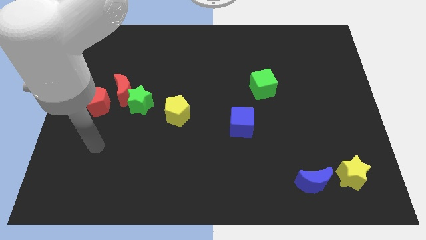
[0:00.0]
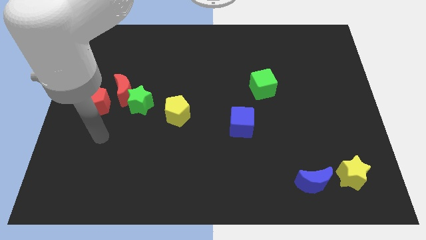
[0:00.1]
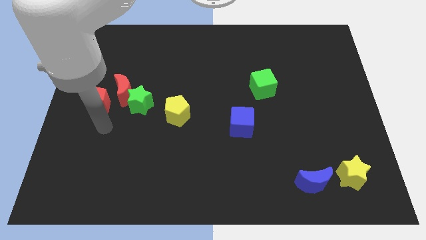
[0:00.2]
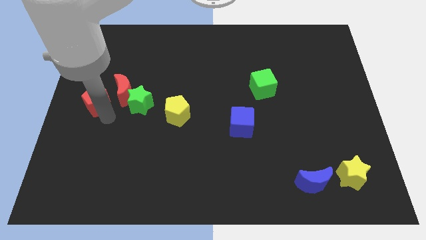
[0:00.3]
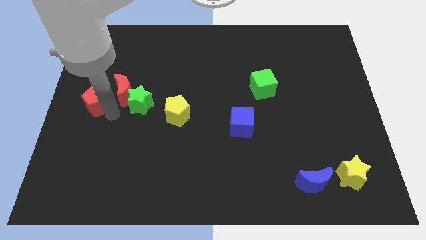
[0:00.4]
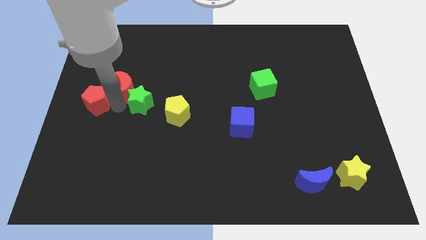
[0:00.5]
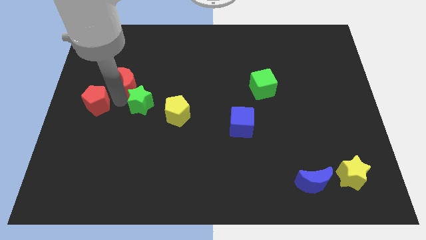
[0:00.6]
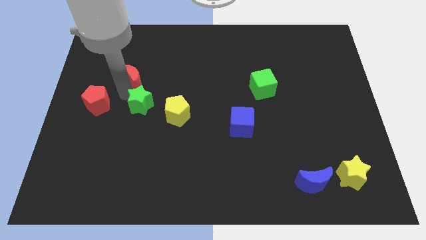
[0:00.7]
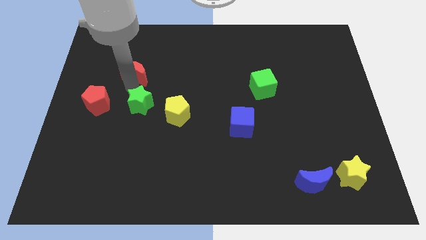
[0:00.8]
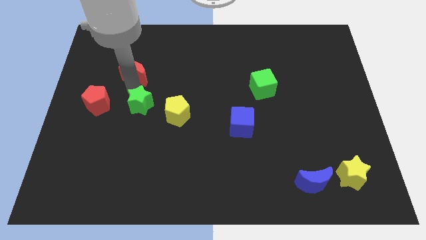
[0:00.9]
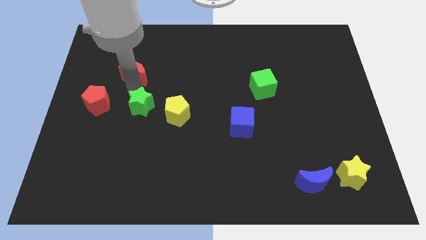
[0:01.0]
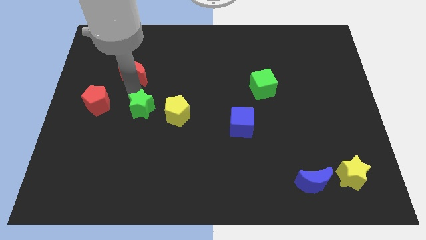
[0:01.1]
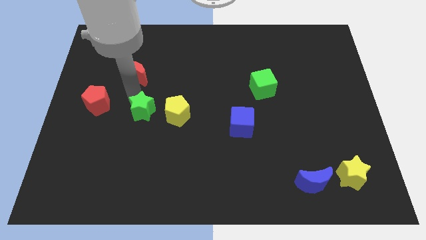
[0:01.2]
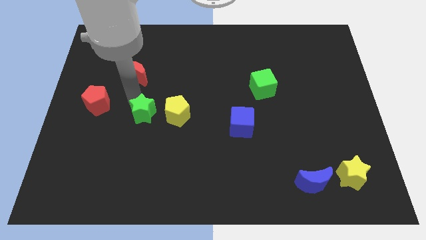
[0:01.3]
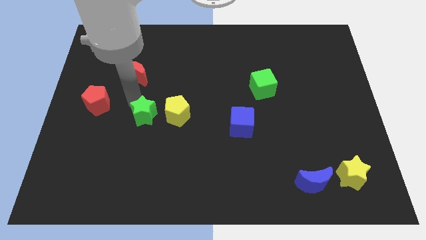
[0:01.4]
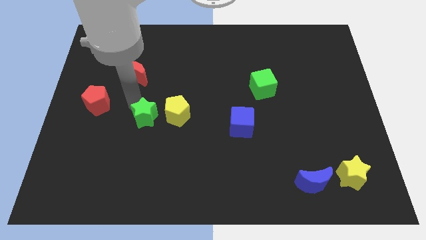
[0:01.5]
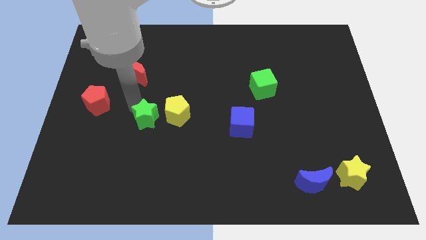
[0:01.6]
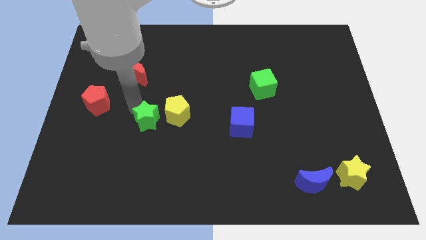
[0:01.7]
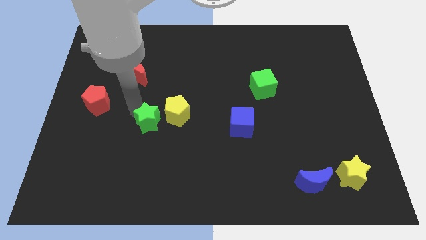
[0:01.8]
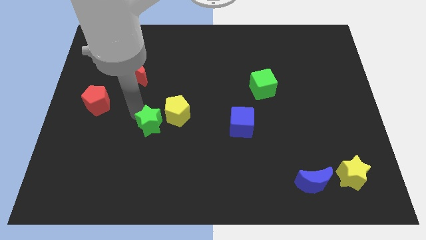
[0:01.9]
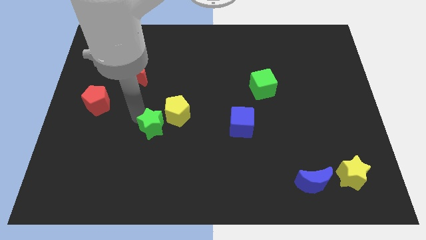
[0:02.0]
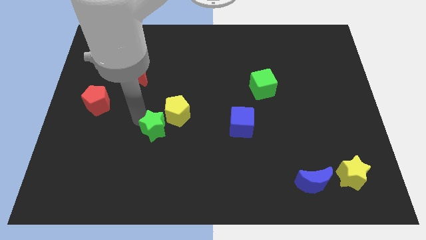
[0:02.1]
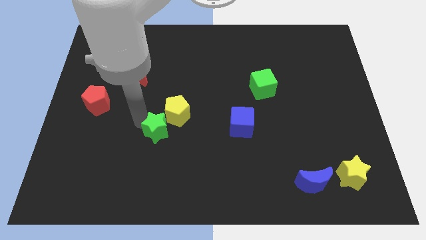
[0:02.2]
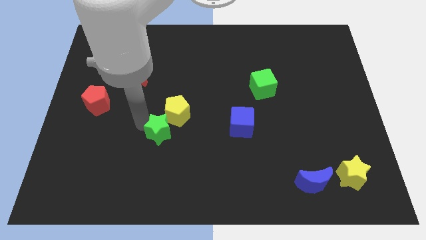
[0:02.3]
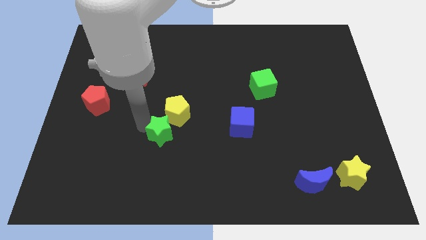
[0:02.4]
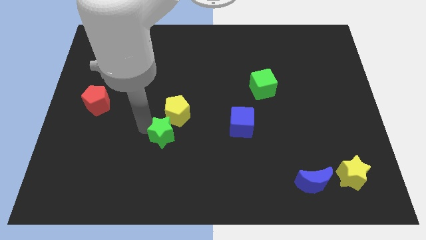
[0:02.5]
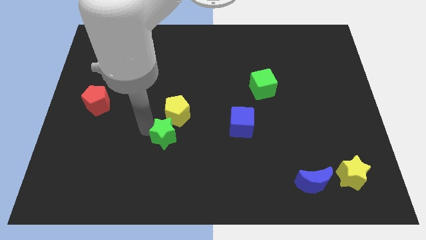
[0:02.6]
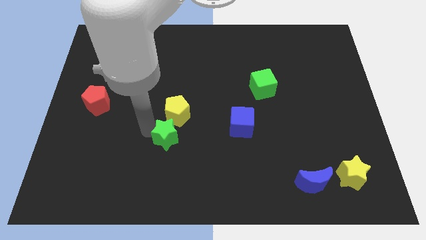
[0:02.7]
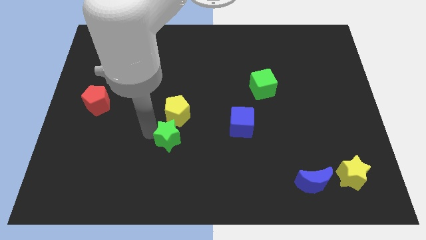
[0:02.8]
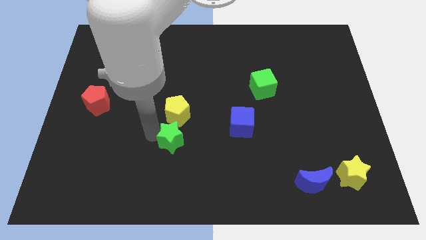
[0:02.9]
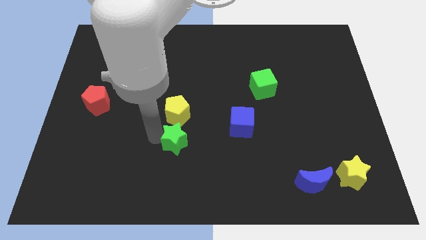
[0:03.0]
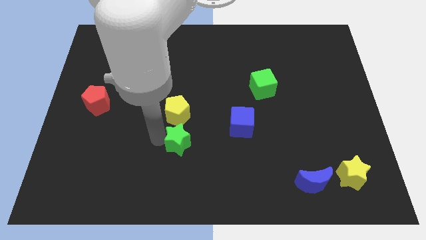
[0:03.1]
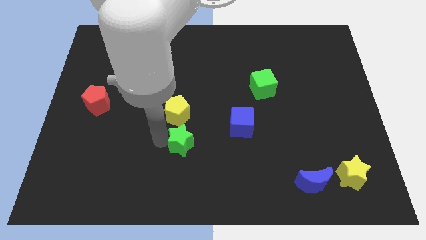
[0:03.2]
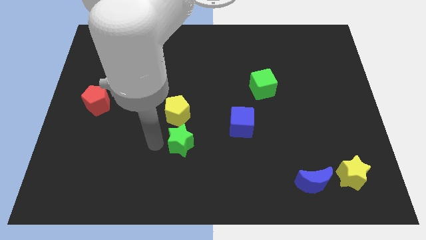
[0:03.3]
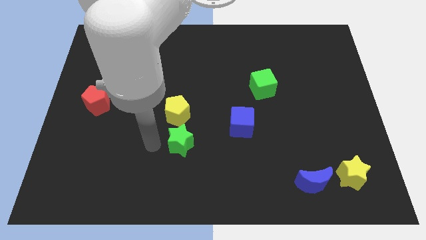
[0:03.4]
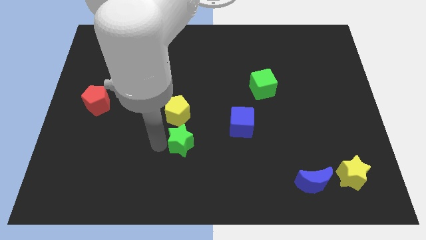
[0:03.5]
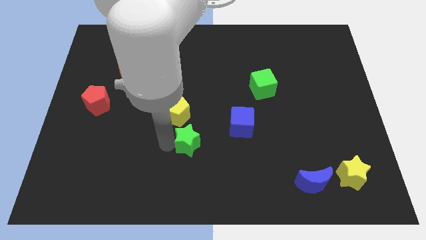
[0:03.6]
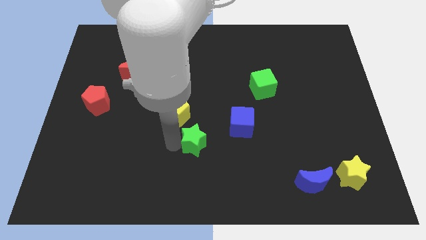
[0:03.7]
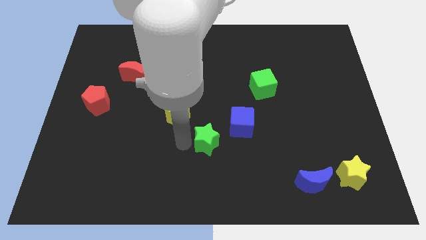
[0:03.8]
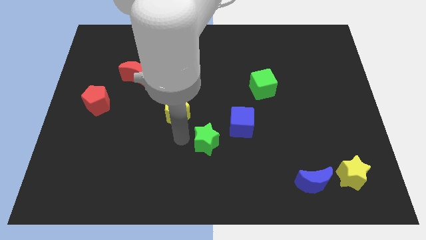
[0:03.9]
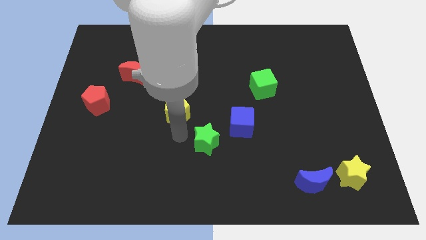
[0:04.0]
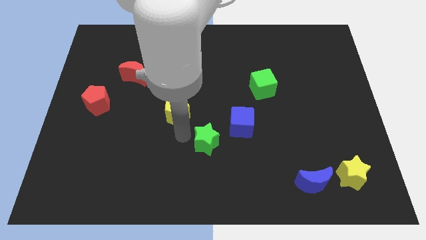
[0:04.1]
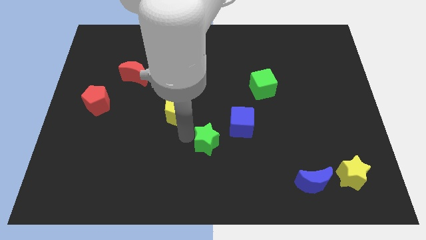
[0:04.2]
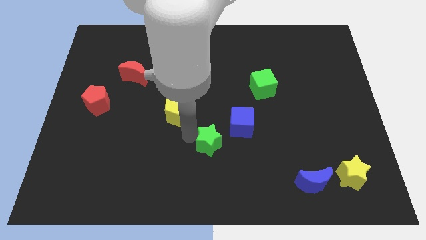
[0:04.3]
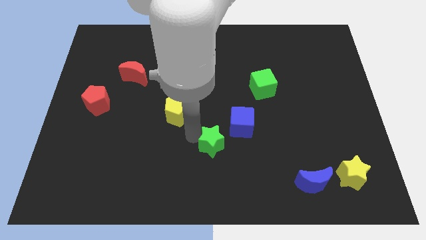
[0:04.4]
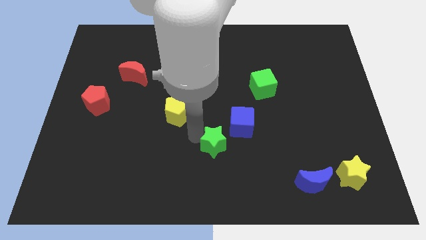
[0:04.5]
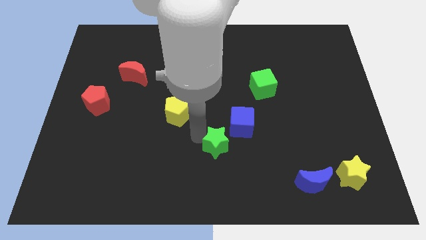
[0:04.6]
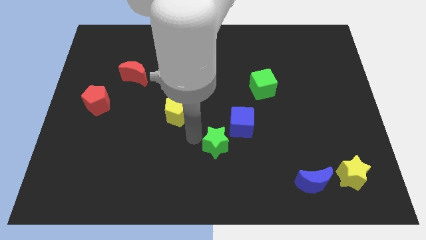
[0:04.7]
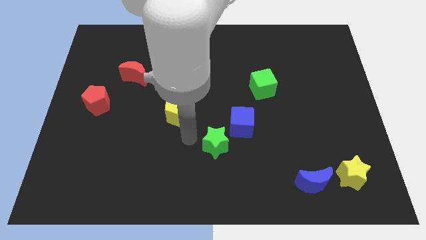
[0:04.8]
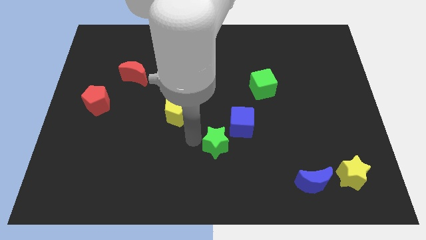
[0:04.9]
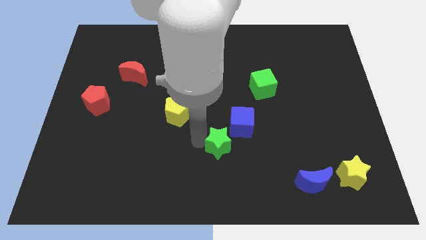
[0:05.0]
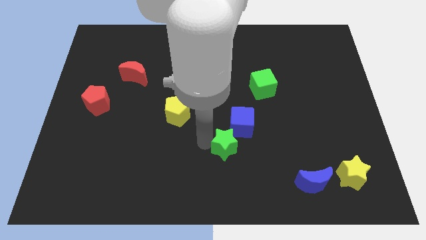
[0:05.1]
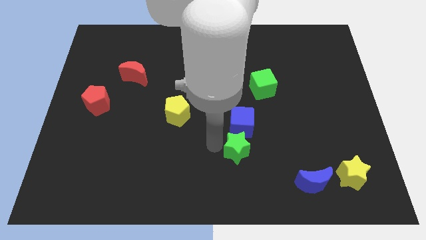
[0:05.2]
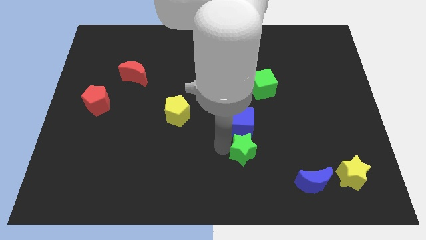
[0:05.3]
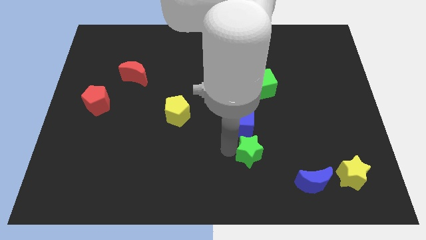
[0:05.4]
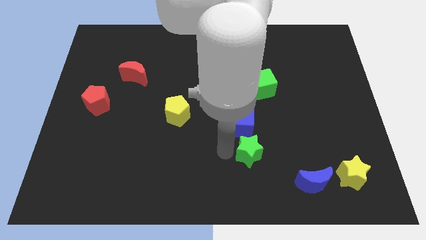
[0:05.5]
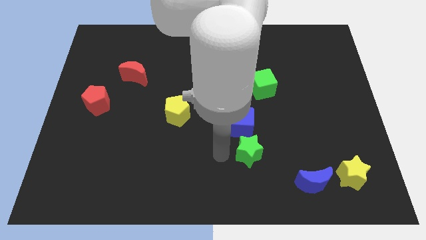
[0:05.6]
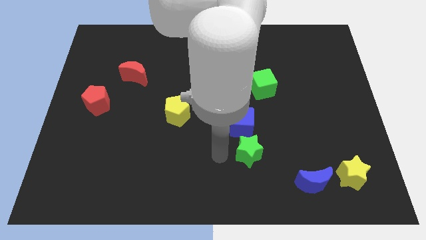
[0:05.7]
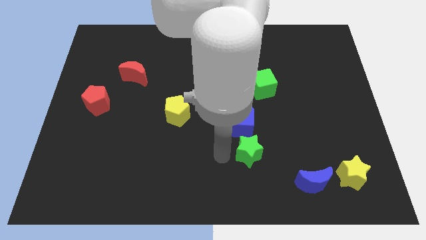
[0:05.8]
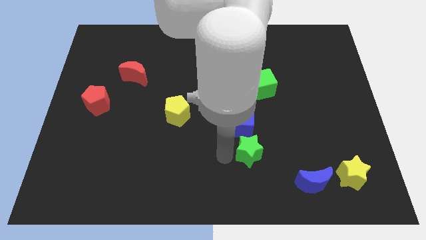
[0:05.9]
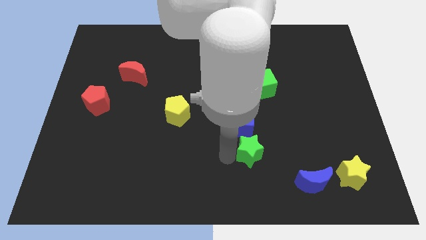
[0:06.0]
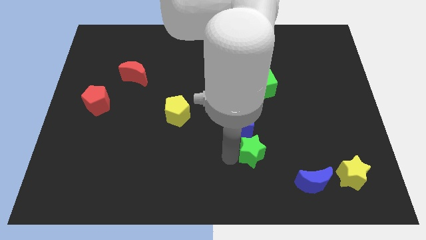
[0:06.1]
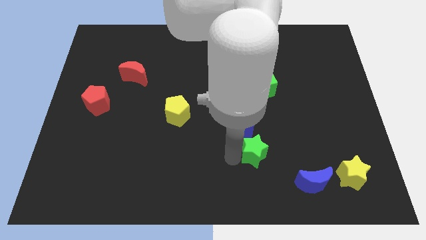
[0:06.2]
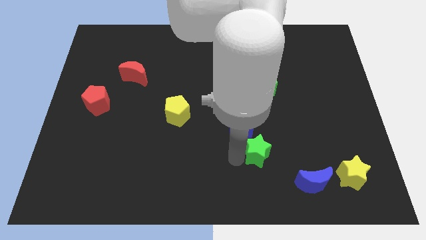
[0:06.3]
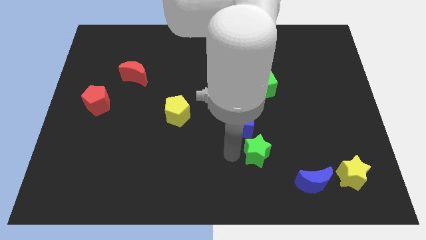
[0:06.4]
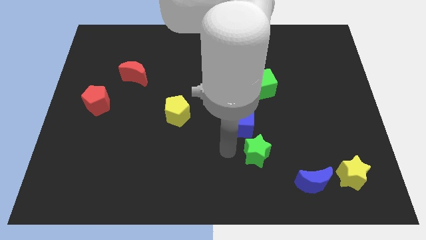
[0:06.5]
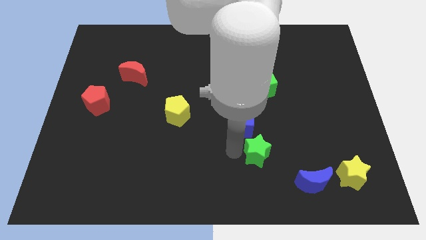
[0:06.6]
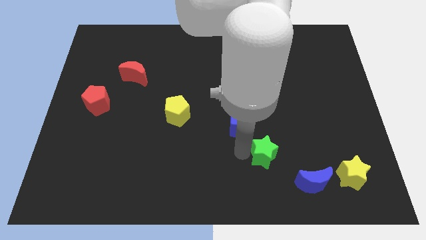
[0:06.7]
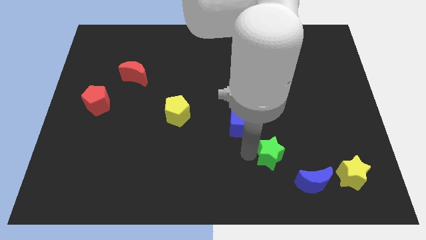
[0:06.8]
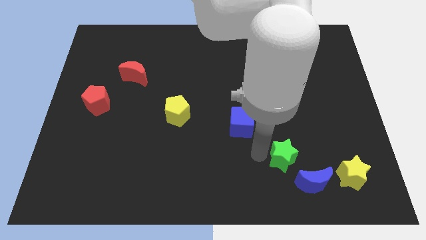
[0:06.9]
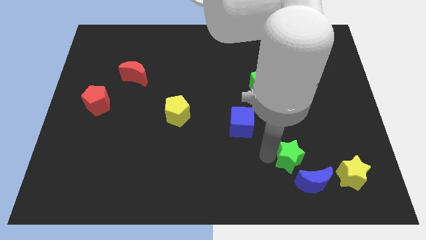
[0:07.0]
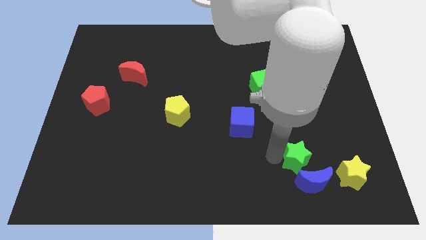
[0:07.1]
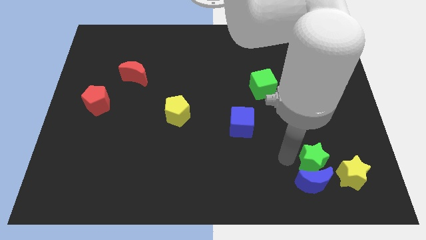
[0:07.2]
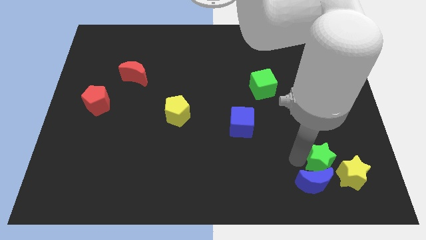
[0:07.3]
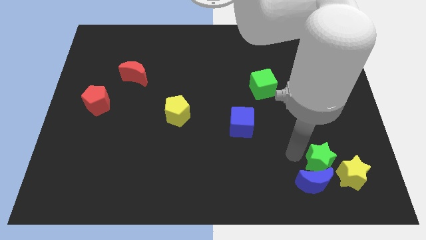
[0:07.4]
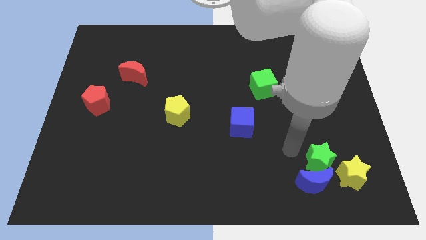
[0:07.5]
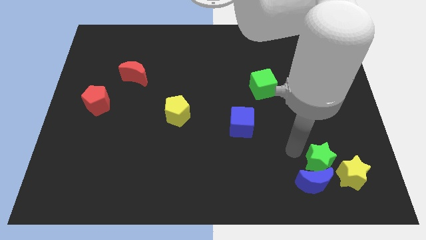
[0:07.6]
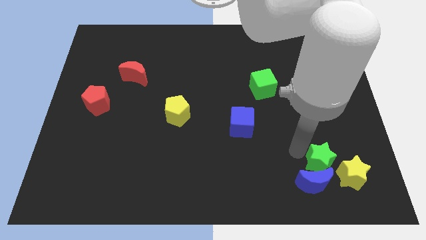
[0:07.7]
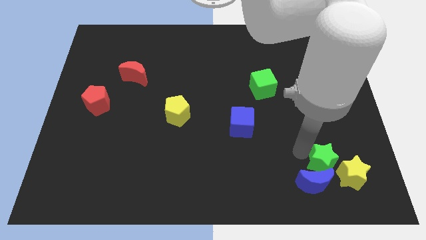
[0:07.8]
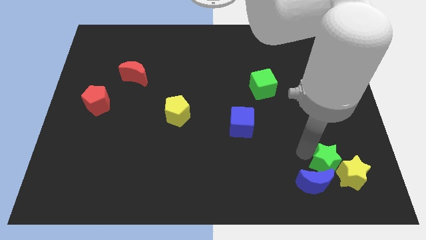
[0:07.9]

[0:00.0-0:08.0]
slide the green star to the yellow star
